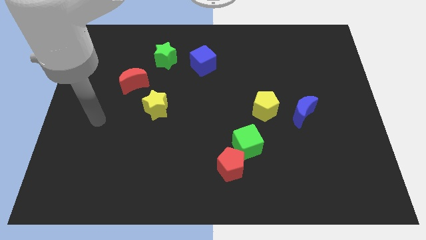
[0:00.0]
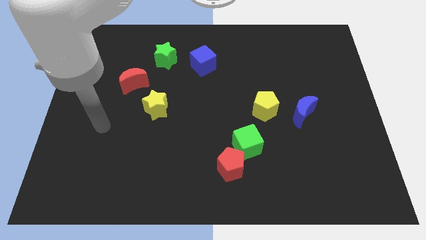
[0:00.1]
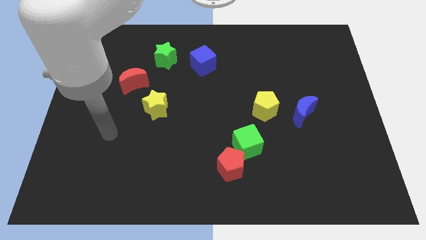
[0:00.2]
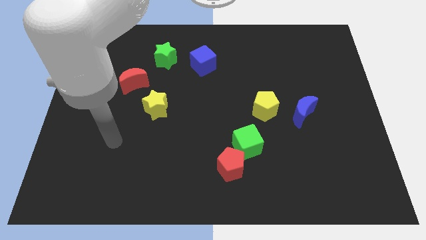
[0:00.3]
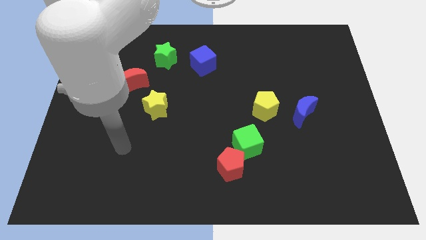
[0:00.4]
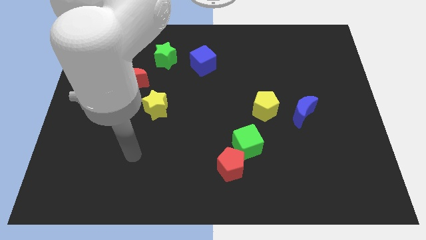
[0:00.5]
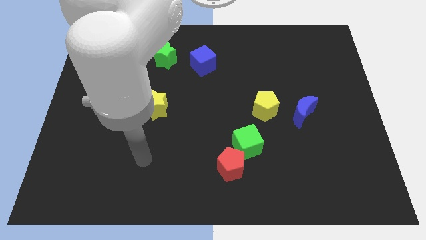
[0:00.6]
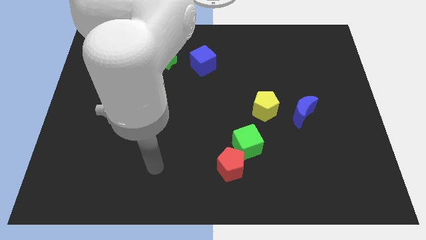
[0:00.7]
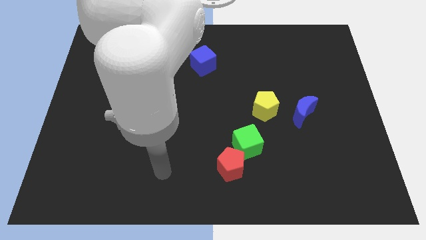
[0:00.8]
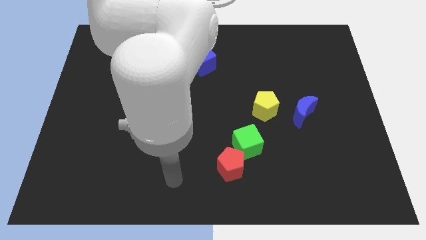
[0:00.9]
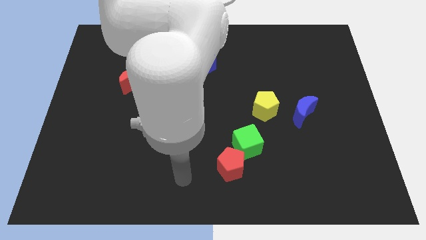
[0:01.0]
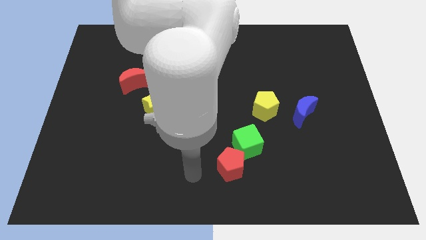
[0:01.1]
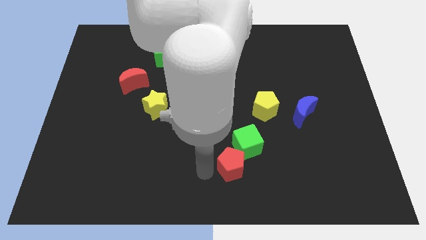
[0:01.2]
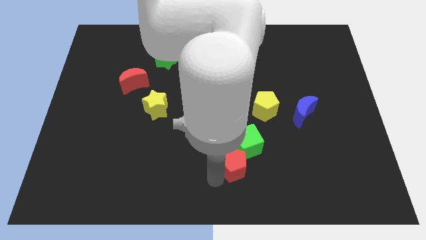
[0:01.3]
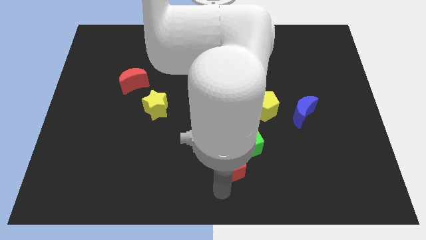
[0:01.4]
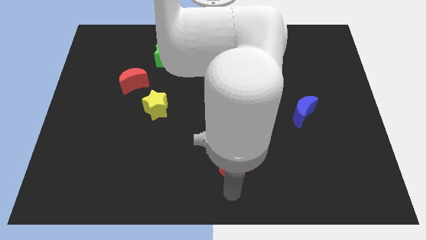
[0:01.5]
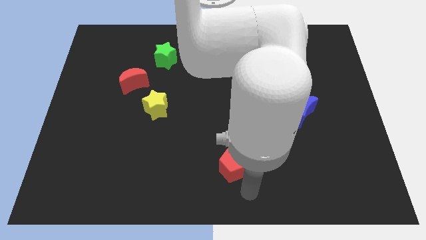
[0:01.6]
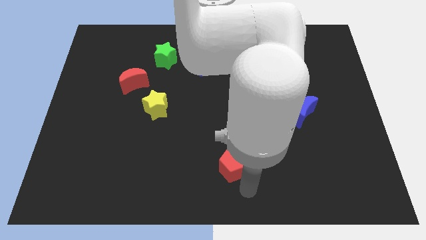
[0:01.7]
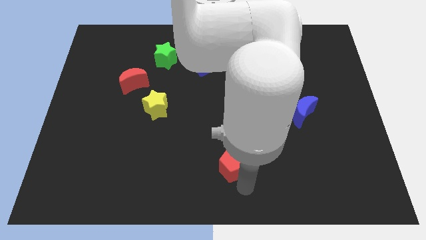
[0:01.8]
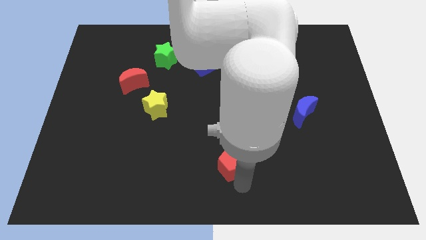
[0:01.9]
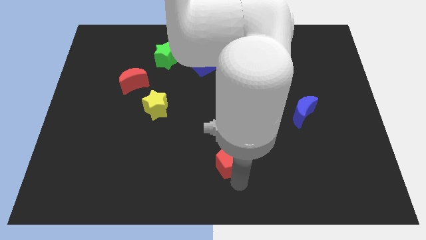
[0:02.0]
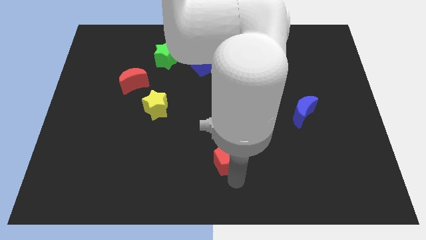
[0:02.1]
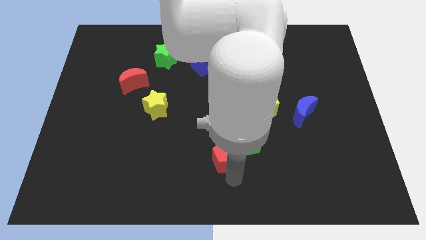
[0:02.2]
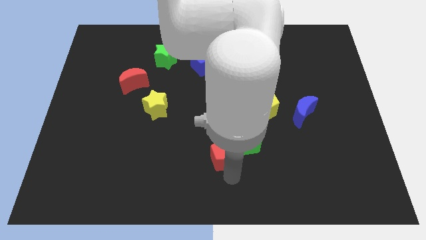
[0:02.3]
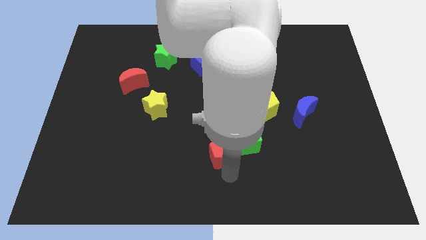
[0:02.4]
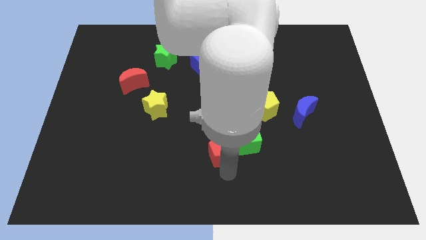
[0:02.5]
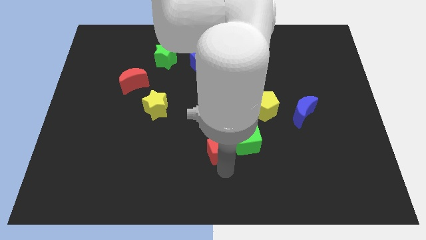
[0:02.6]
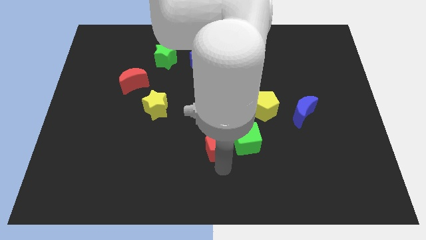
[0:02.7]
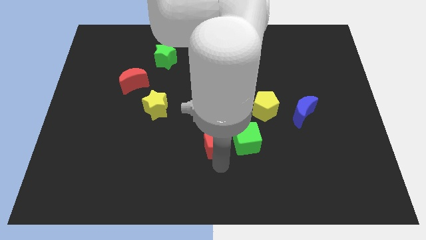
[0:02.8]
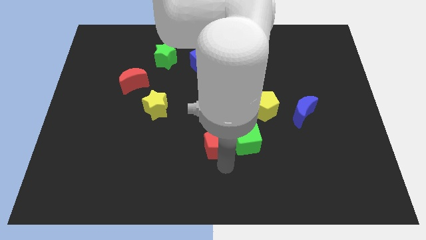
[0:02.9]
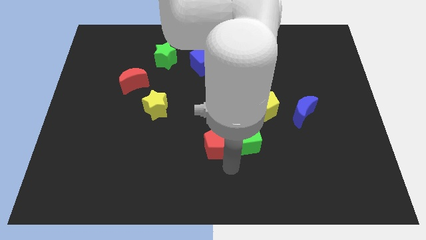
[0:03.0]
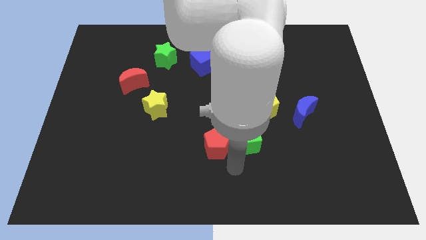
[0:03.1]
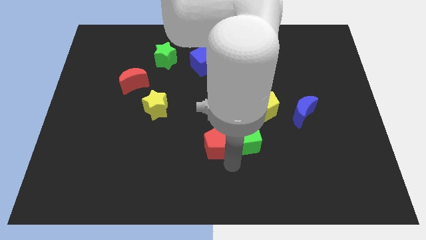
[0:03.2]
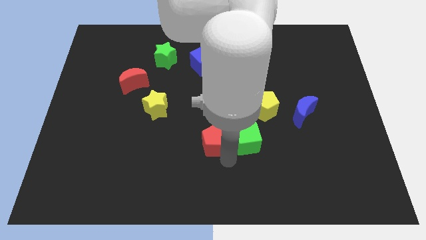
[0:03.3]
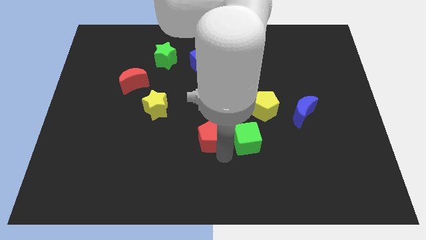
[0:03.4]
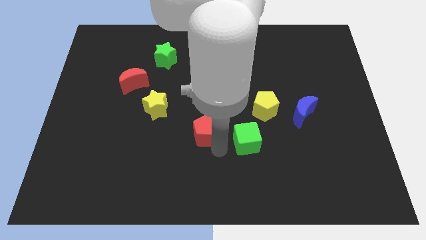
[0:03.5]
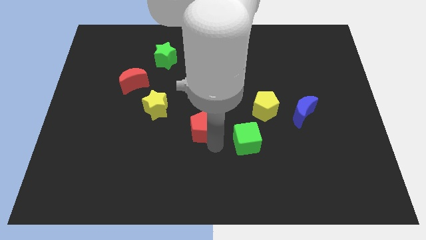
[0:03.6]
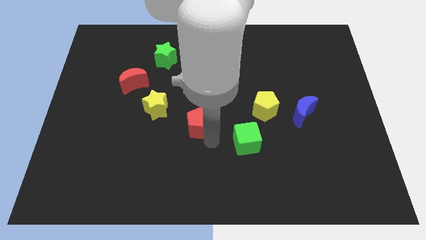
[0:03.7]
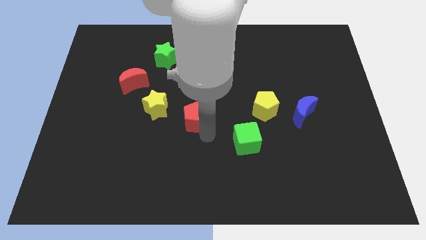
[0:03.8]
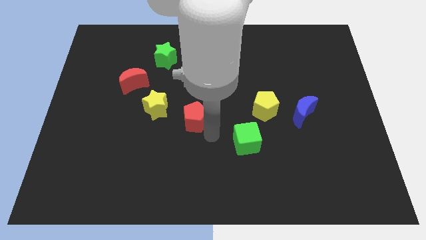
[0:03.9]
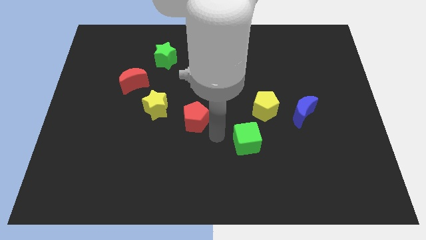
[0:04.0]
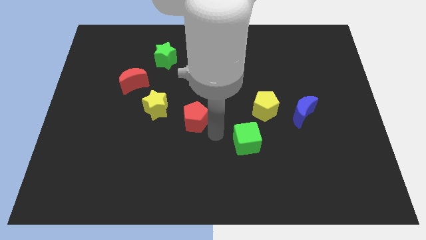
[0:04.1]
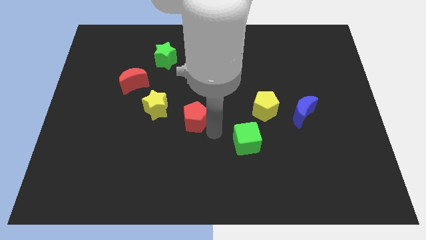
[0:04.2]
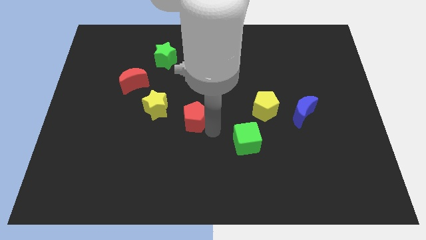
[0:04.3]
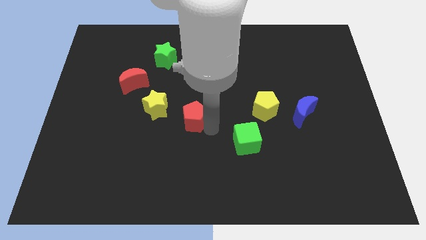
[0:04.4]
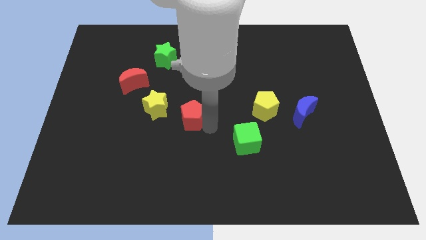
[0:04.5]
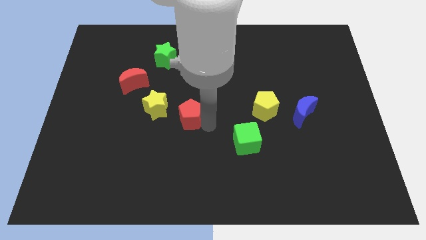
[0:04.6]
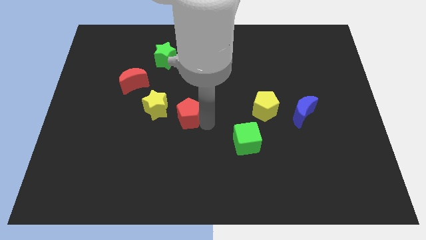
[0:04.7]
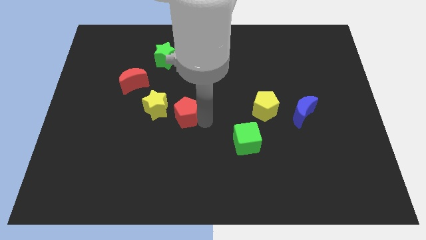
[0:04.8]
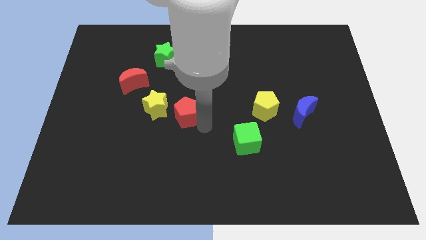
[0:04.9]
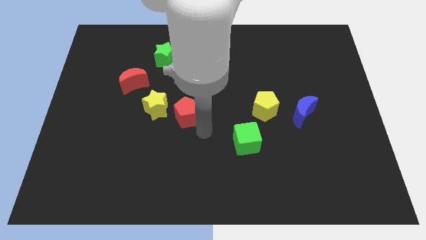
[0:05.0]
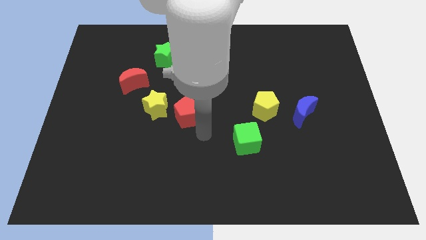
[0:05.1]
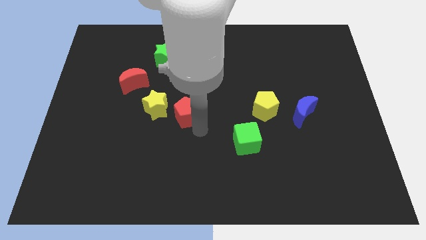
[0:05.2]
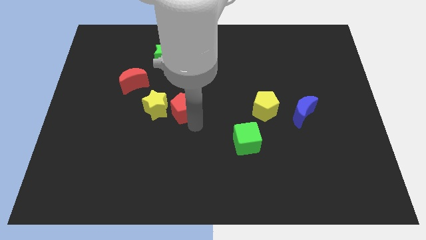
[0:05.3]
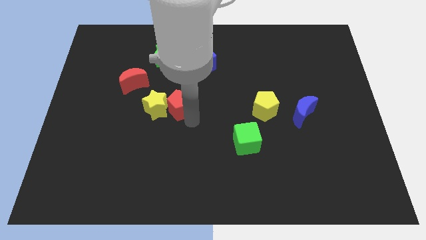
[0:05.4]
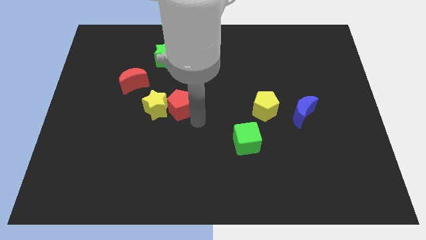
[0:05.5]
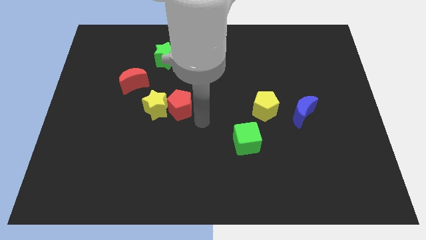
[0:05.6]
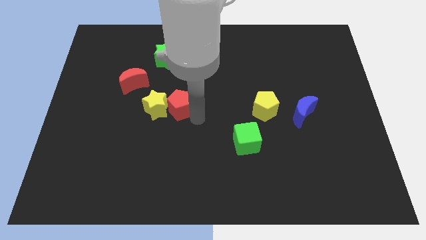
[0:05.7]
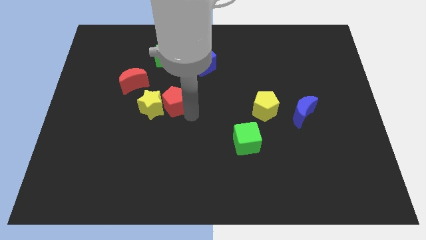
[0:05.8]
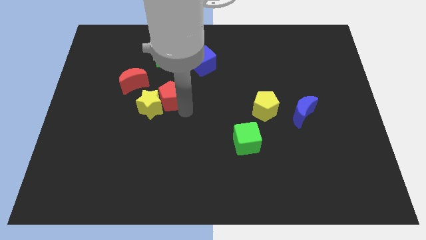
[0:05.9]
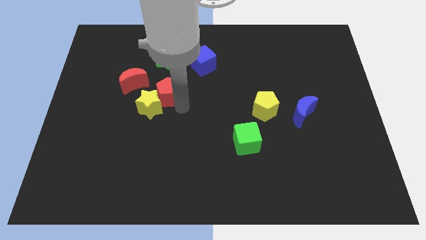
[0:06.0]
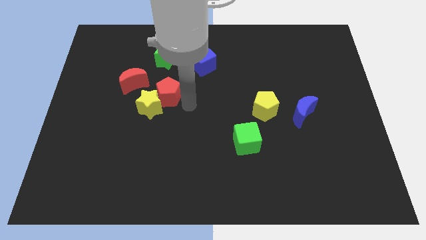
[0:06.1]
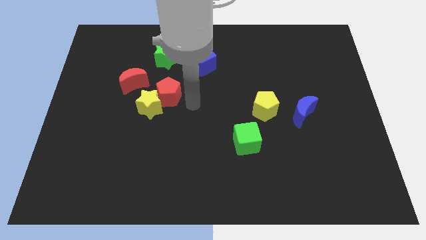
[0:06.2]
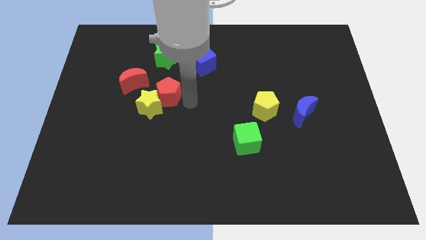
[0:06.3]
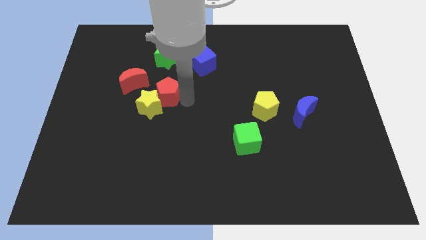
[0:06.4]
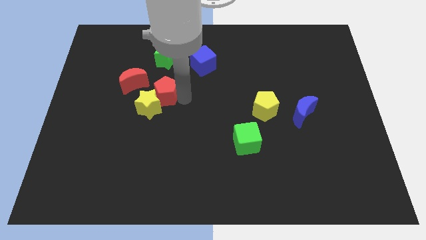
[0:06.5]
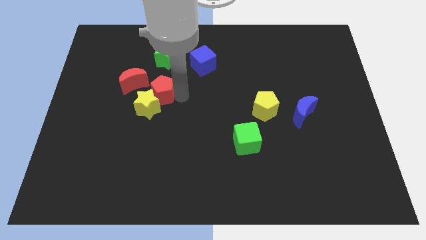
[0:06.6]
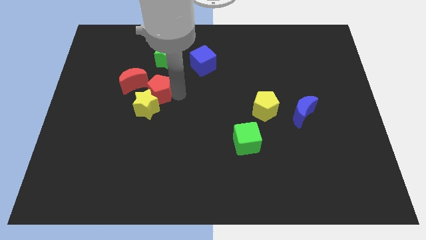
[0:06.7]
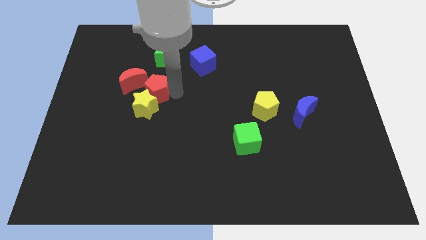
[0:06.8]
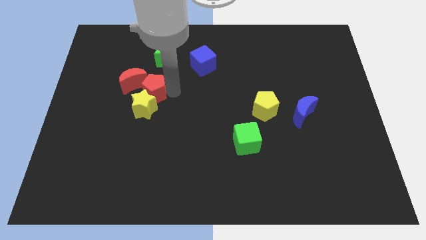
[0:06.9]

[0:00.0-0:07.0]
put the red pentagon to the red moon

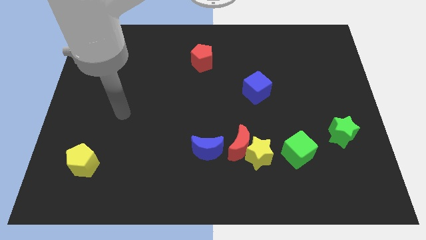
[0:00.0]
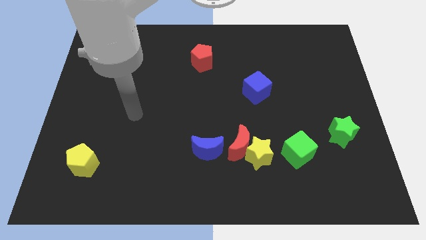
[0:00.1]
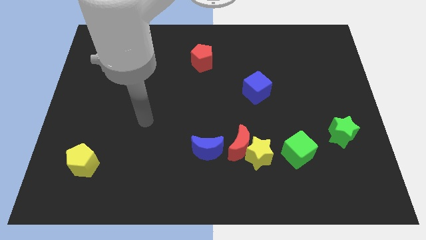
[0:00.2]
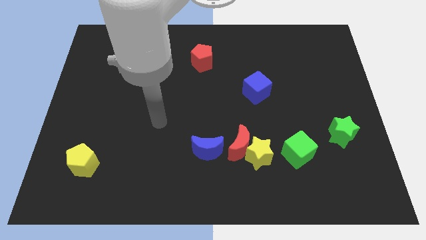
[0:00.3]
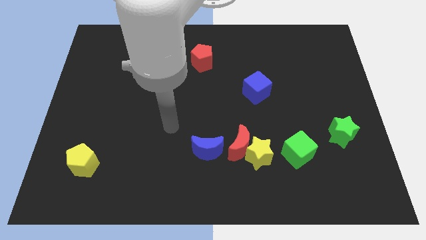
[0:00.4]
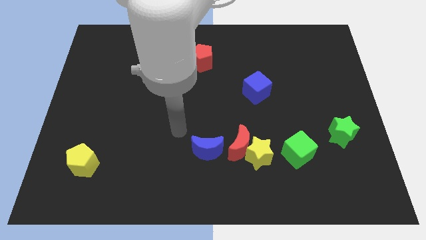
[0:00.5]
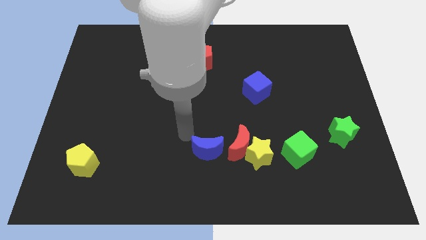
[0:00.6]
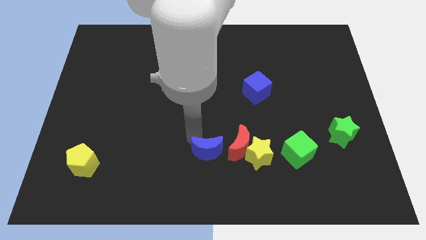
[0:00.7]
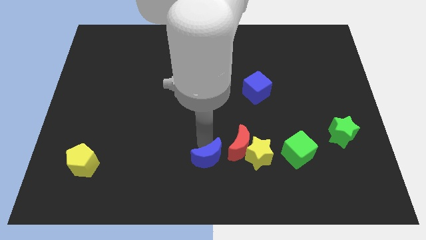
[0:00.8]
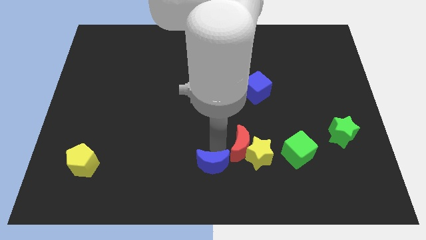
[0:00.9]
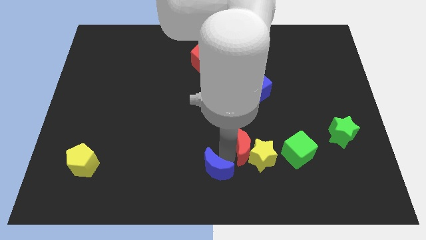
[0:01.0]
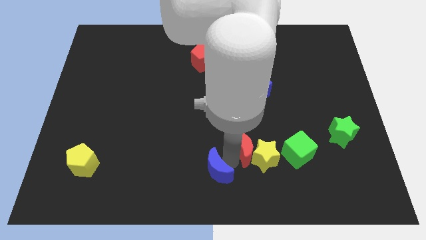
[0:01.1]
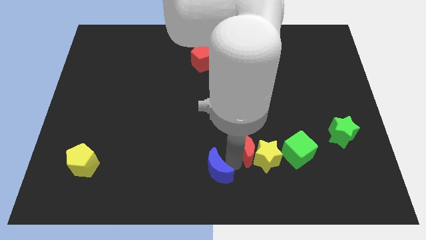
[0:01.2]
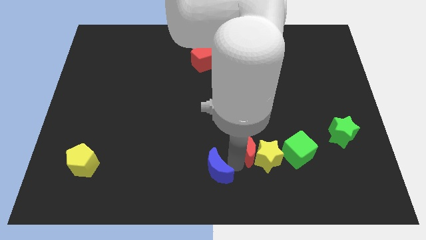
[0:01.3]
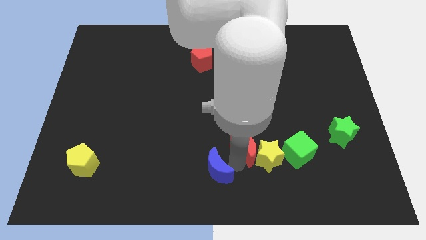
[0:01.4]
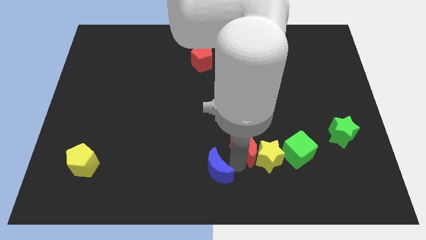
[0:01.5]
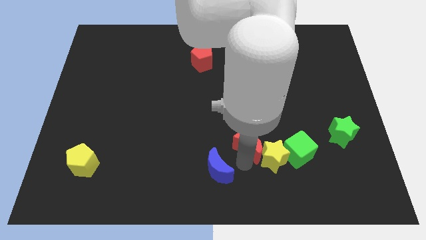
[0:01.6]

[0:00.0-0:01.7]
push the yellow star towards the green cube
